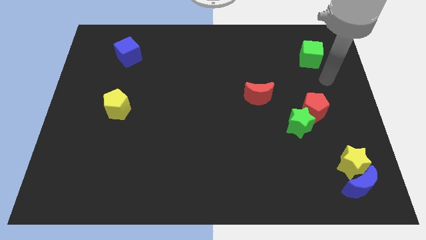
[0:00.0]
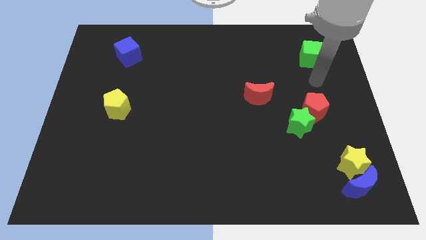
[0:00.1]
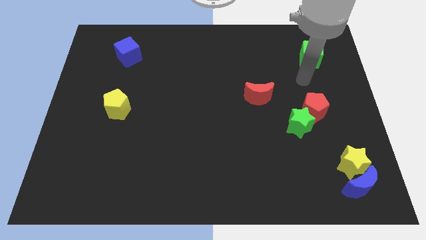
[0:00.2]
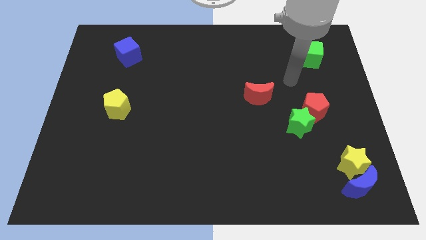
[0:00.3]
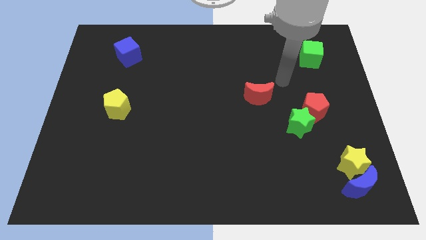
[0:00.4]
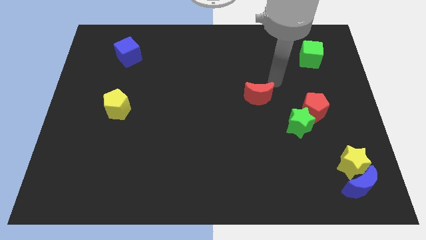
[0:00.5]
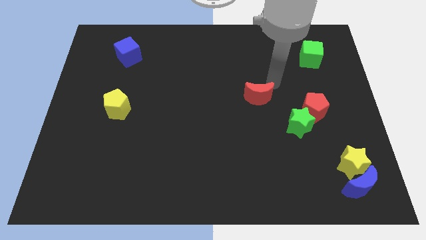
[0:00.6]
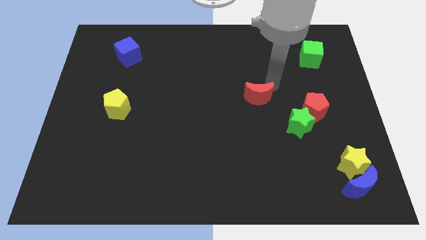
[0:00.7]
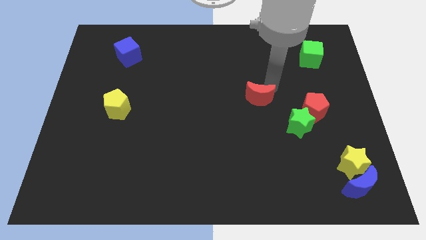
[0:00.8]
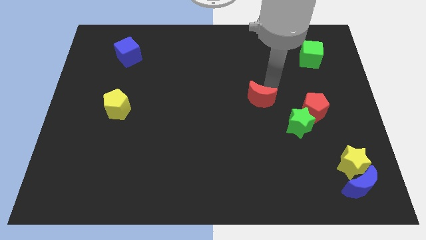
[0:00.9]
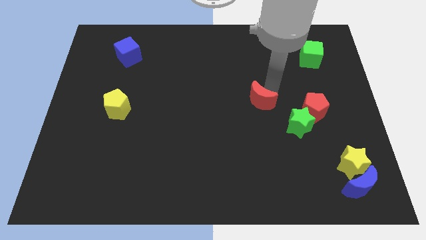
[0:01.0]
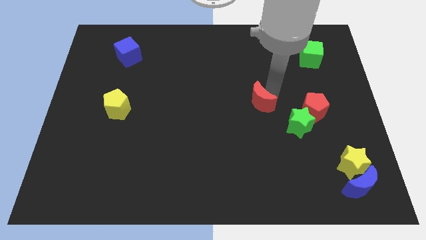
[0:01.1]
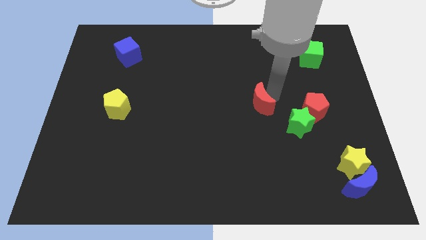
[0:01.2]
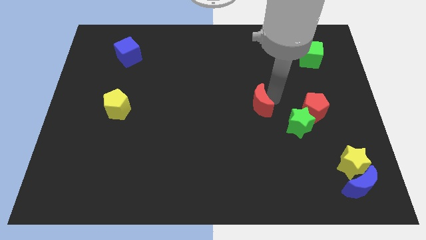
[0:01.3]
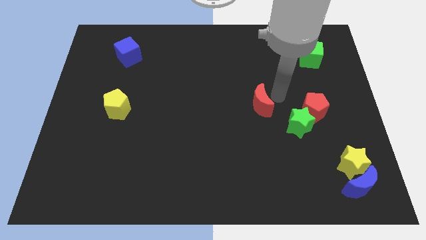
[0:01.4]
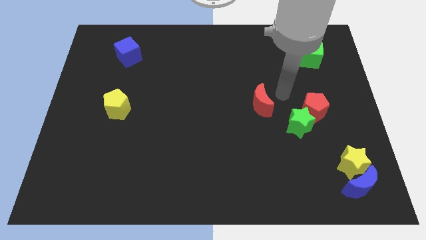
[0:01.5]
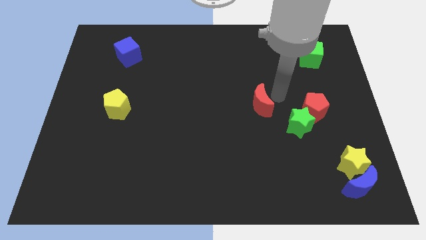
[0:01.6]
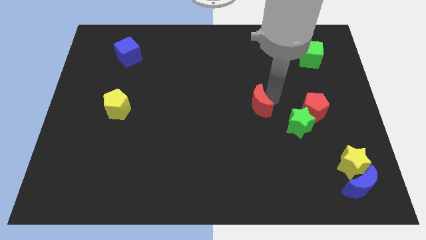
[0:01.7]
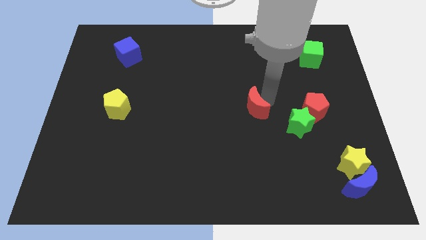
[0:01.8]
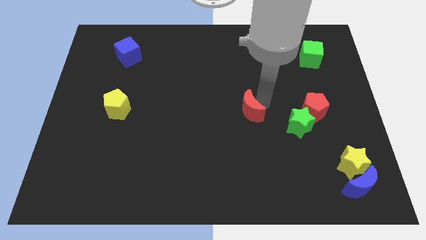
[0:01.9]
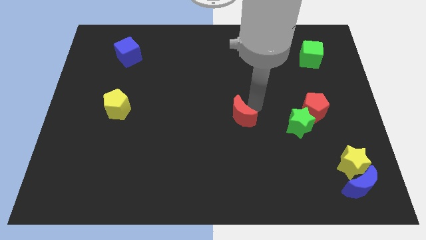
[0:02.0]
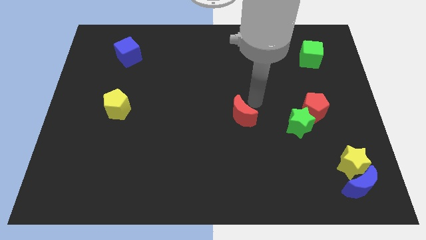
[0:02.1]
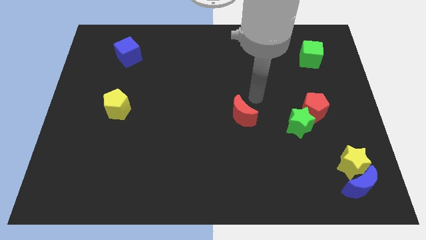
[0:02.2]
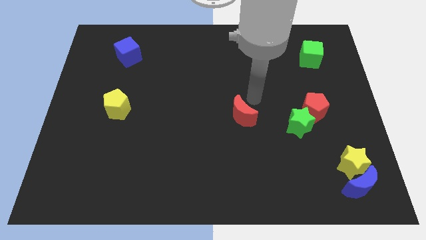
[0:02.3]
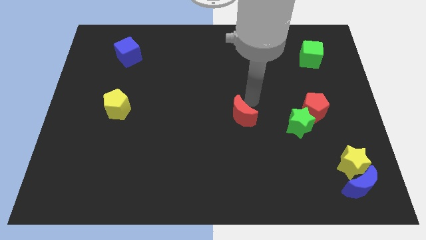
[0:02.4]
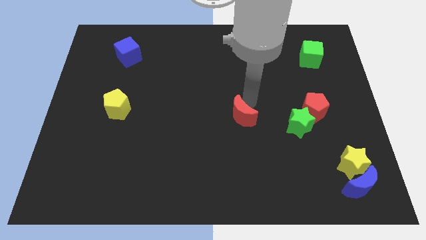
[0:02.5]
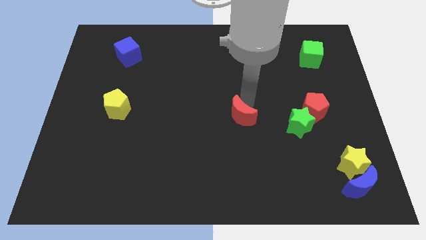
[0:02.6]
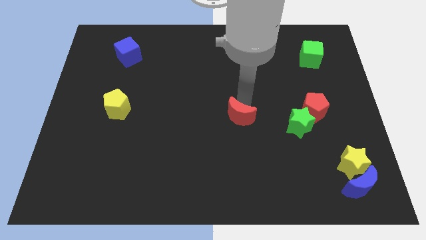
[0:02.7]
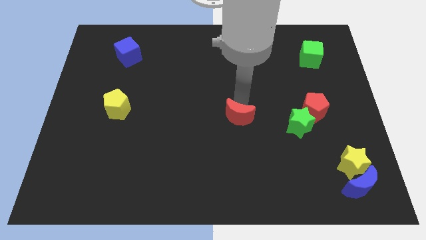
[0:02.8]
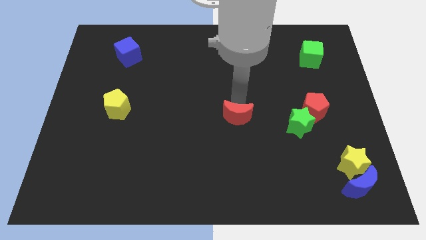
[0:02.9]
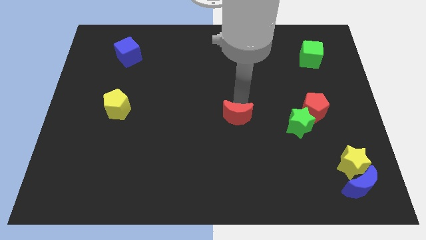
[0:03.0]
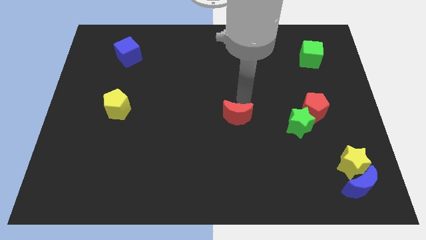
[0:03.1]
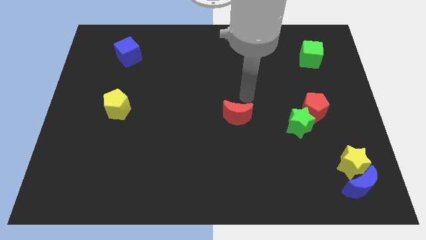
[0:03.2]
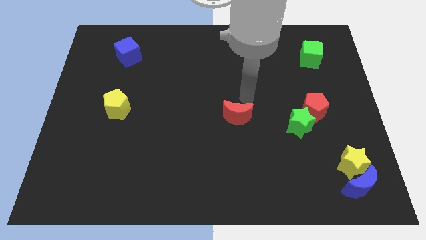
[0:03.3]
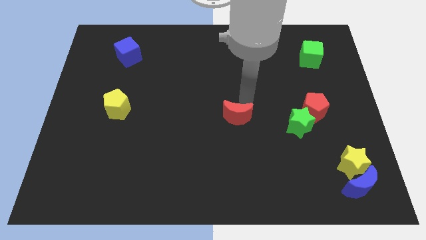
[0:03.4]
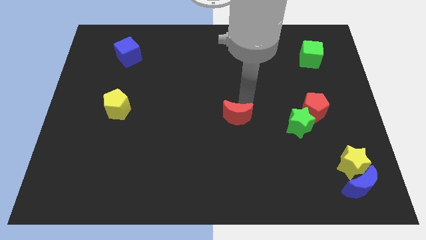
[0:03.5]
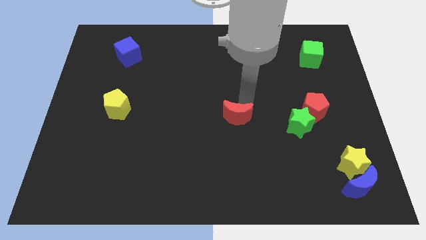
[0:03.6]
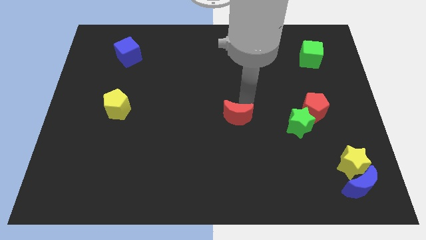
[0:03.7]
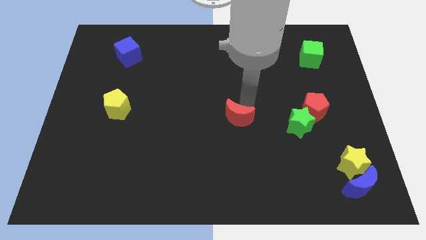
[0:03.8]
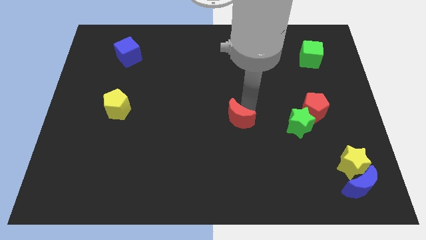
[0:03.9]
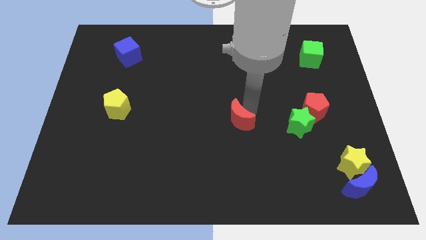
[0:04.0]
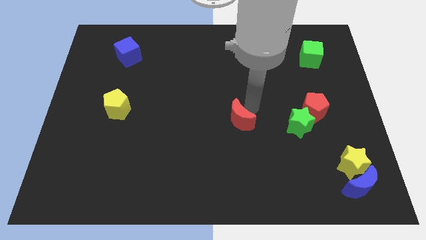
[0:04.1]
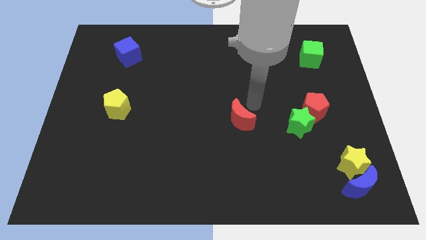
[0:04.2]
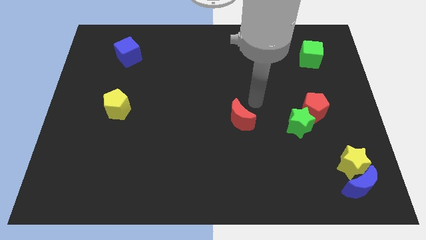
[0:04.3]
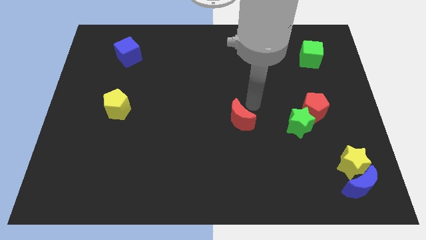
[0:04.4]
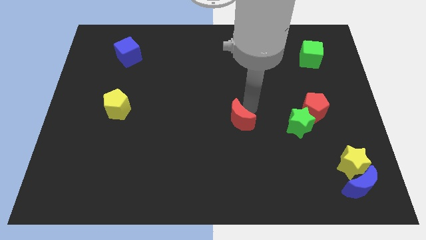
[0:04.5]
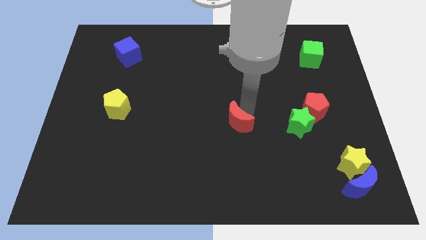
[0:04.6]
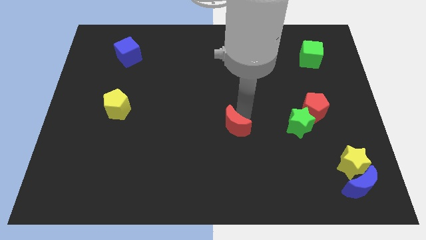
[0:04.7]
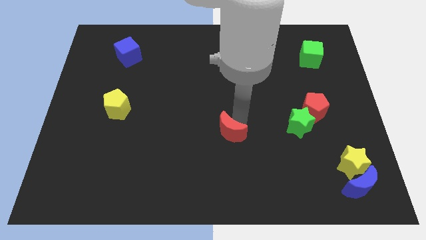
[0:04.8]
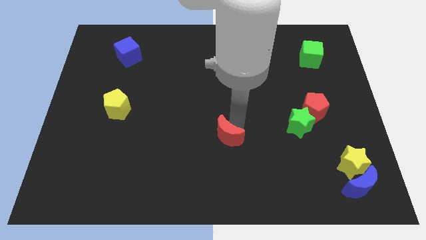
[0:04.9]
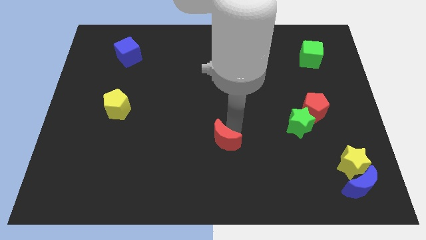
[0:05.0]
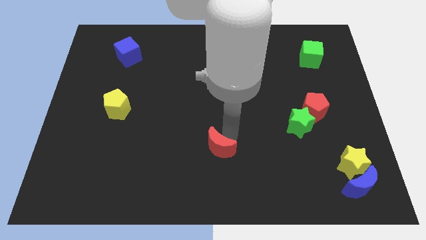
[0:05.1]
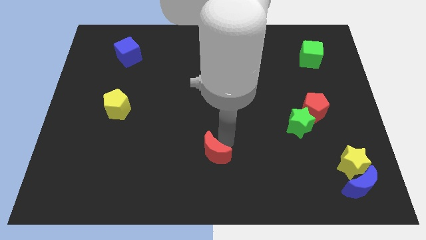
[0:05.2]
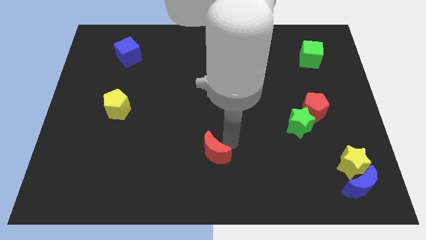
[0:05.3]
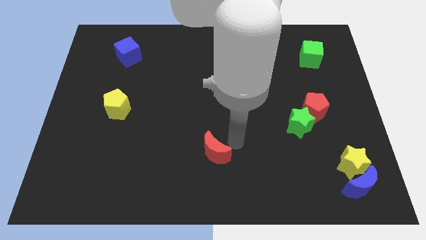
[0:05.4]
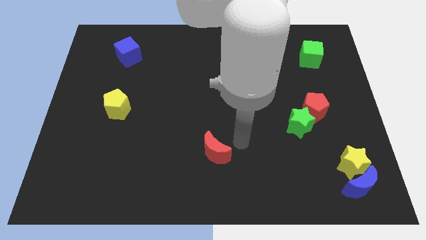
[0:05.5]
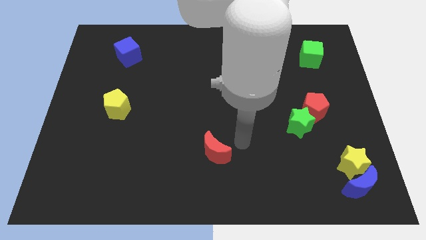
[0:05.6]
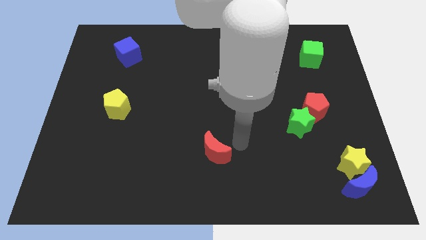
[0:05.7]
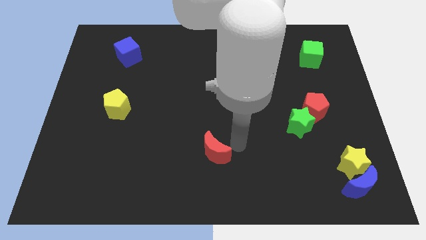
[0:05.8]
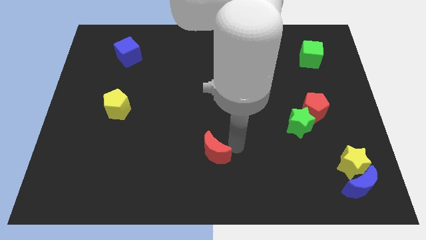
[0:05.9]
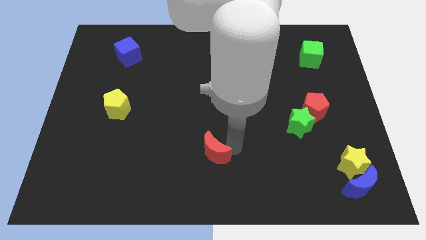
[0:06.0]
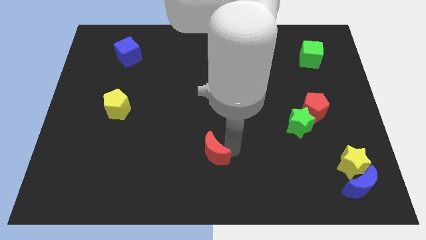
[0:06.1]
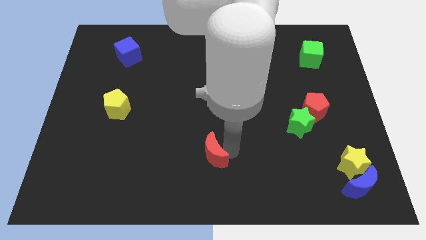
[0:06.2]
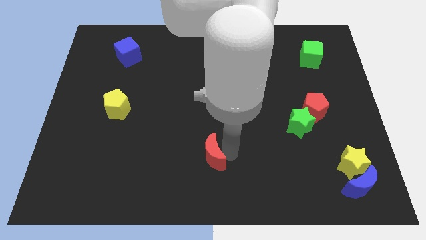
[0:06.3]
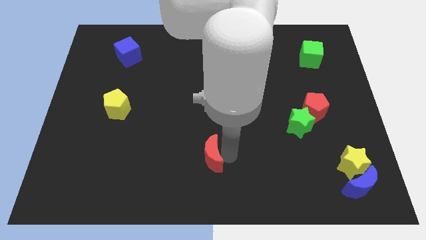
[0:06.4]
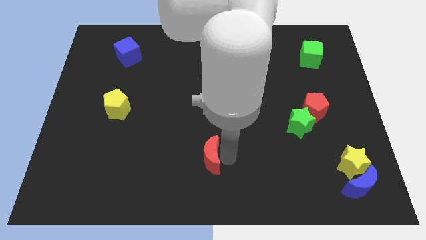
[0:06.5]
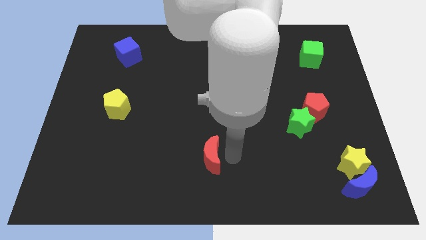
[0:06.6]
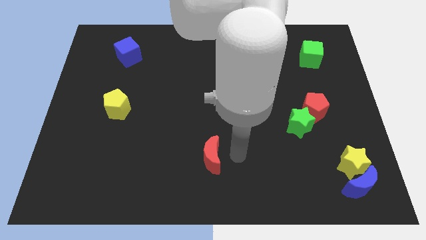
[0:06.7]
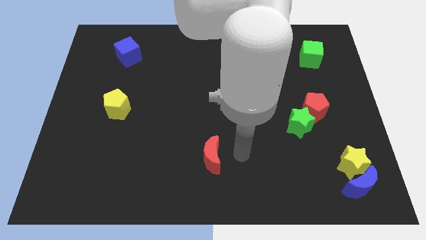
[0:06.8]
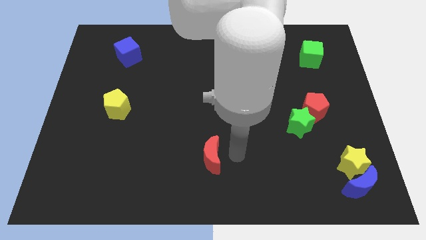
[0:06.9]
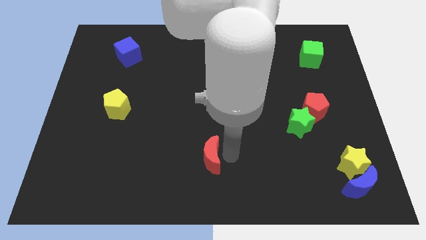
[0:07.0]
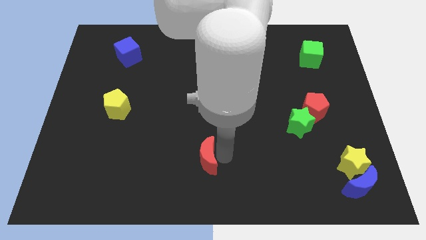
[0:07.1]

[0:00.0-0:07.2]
move the red moon down and to the left

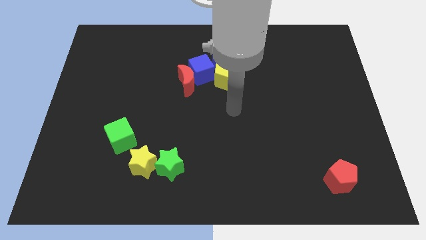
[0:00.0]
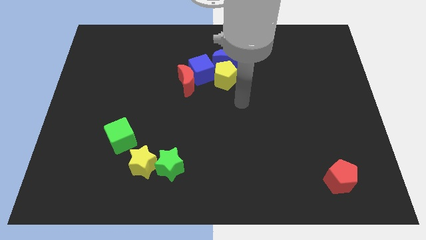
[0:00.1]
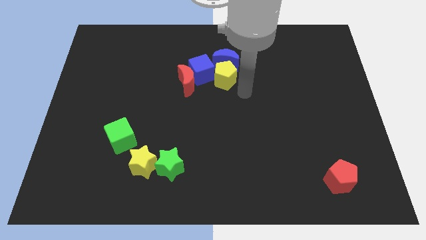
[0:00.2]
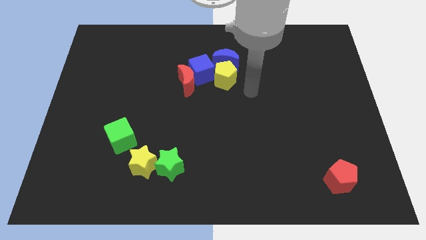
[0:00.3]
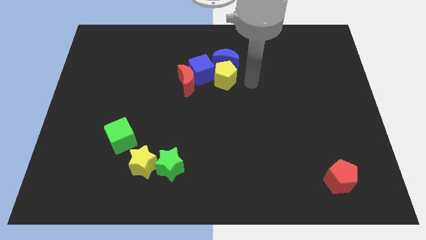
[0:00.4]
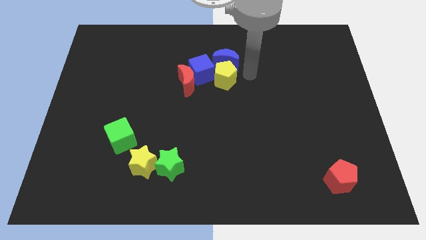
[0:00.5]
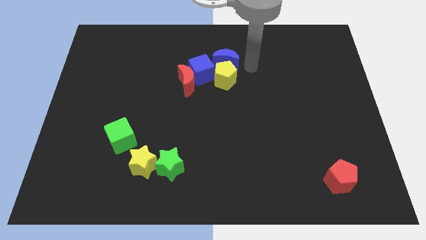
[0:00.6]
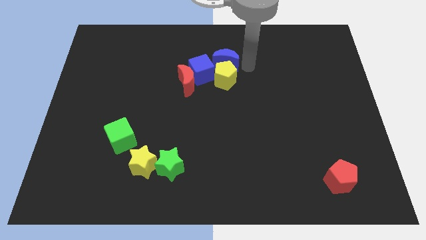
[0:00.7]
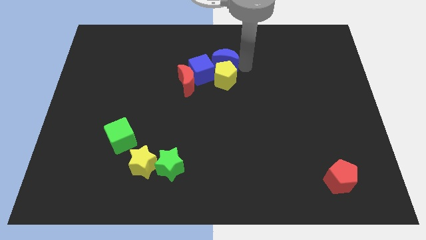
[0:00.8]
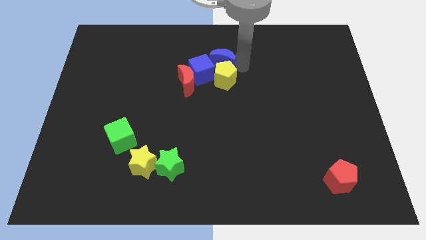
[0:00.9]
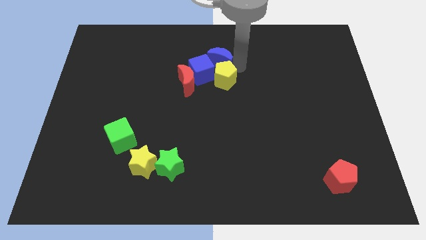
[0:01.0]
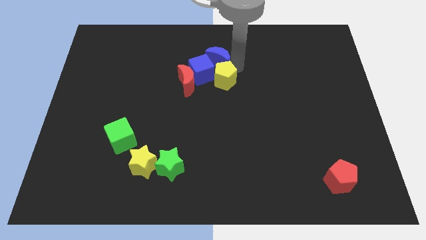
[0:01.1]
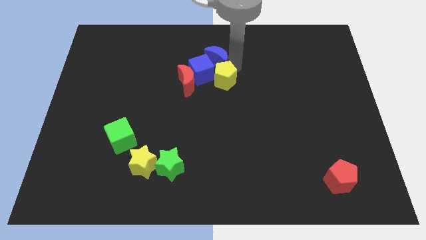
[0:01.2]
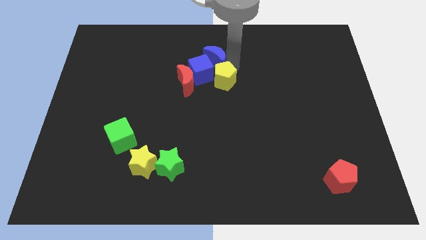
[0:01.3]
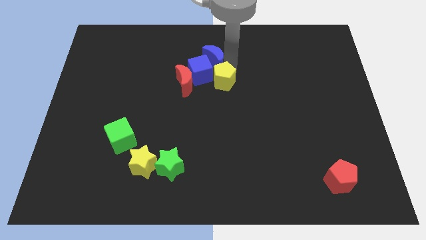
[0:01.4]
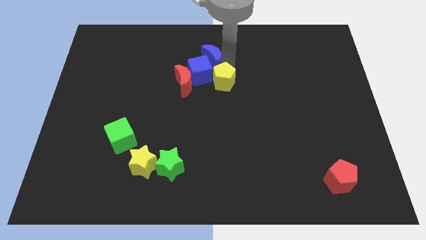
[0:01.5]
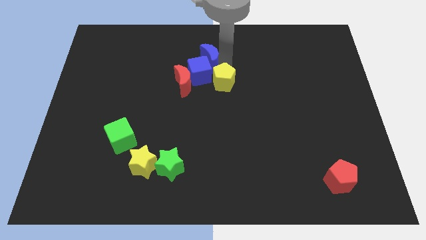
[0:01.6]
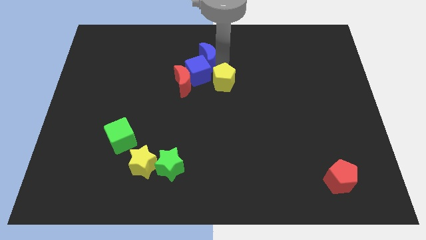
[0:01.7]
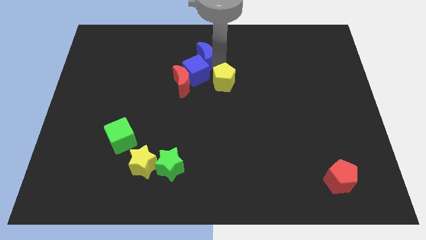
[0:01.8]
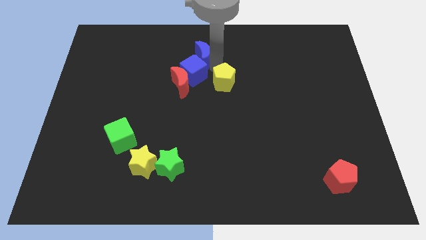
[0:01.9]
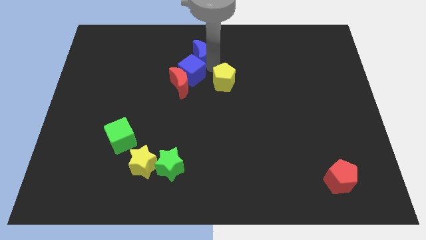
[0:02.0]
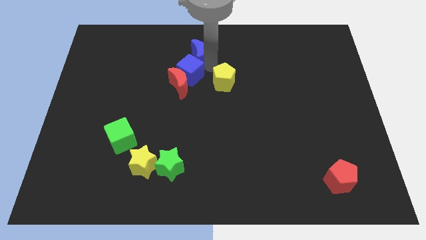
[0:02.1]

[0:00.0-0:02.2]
push the blue moon slightly left
